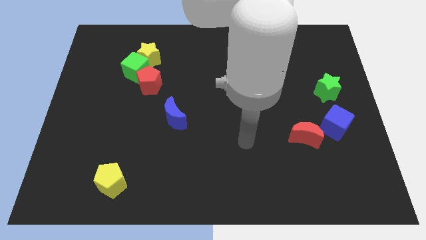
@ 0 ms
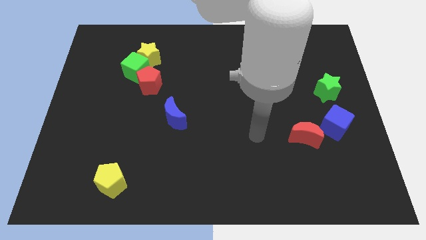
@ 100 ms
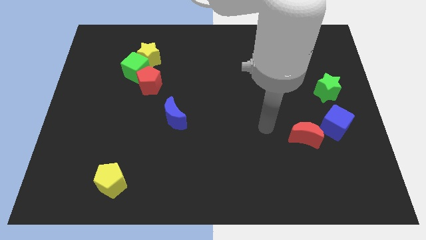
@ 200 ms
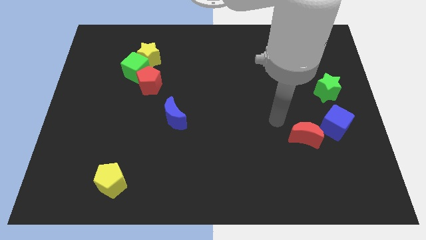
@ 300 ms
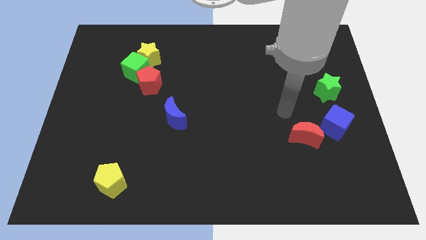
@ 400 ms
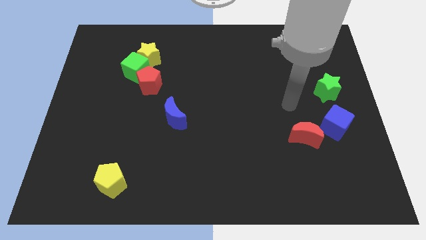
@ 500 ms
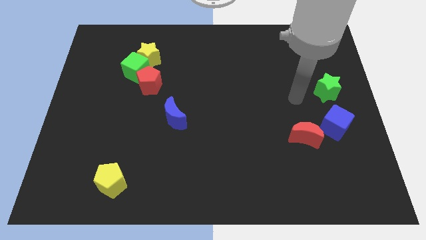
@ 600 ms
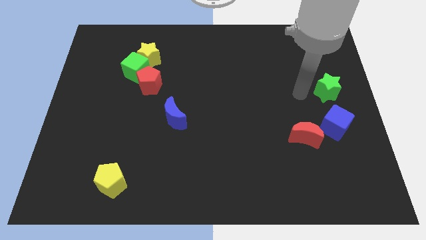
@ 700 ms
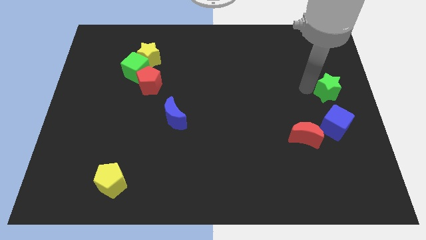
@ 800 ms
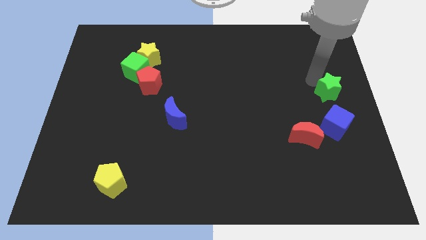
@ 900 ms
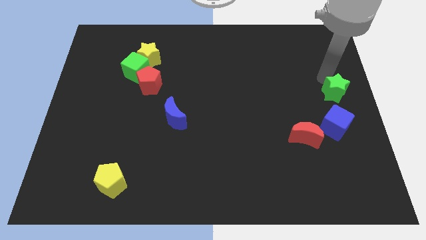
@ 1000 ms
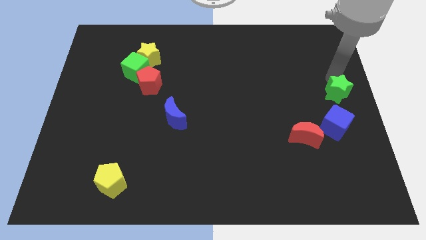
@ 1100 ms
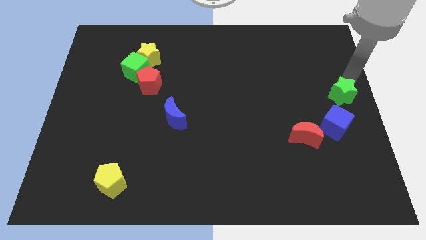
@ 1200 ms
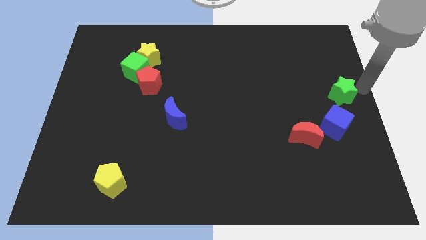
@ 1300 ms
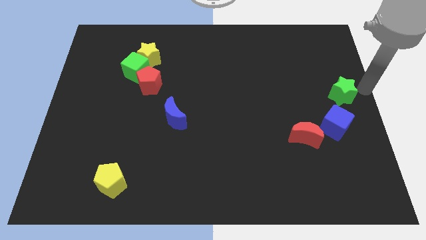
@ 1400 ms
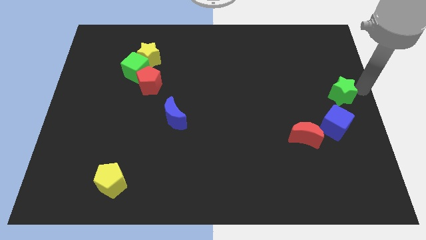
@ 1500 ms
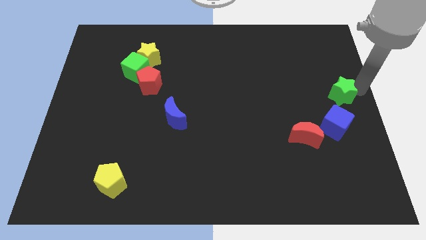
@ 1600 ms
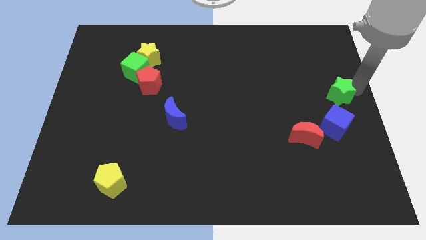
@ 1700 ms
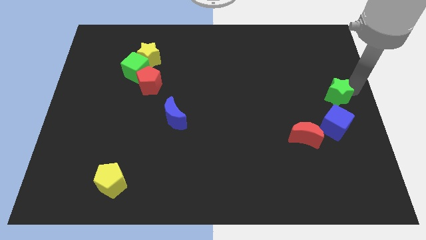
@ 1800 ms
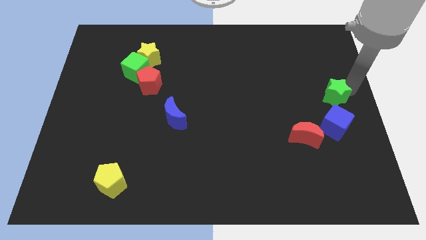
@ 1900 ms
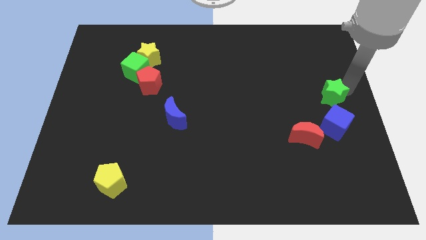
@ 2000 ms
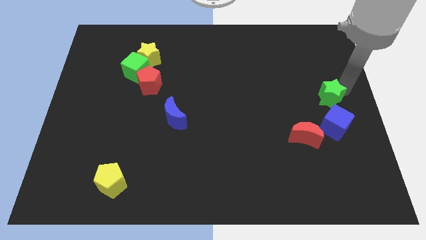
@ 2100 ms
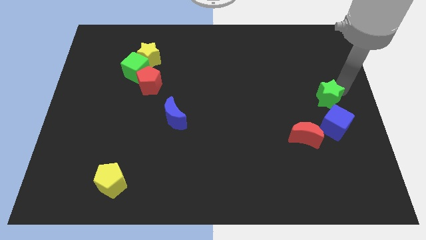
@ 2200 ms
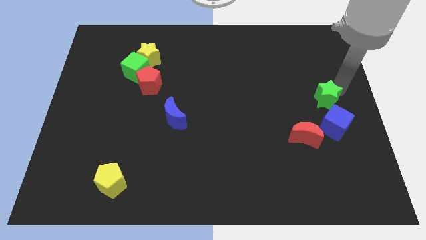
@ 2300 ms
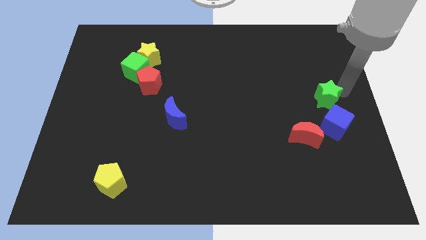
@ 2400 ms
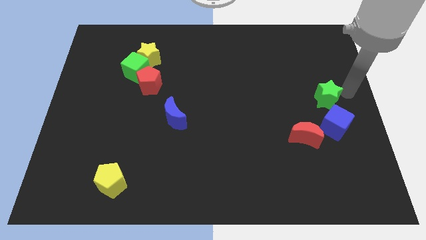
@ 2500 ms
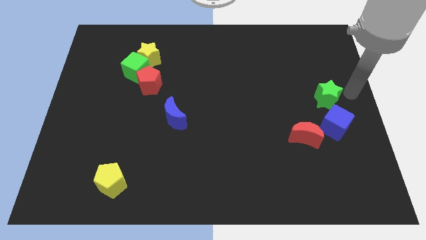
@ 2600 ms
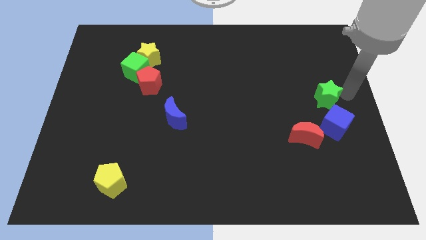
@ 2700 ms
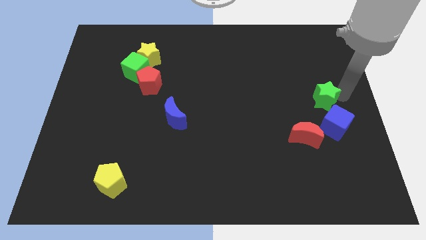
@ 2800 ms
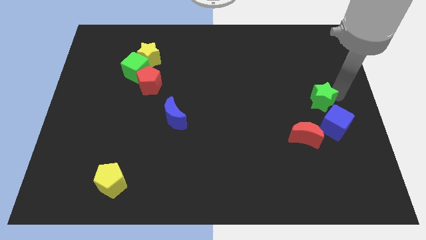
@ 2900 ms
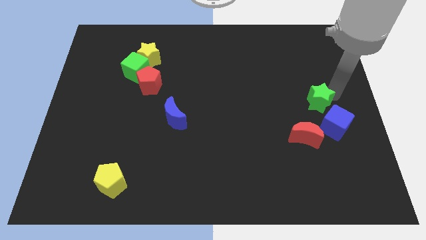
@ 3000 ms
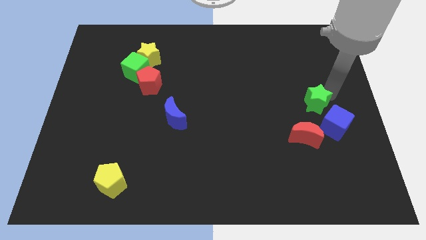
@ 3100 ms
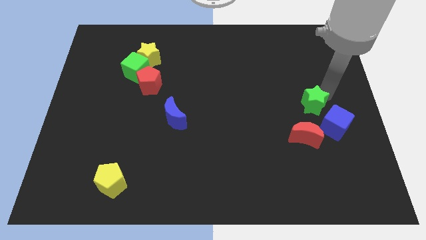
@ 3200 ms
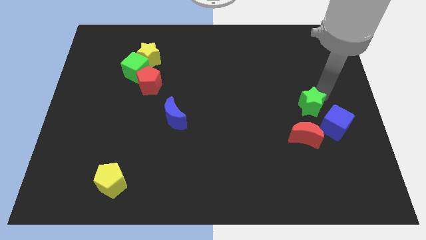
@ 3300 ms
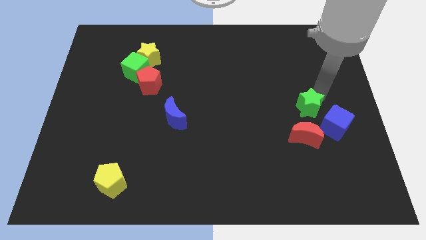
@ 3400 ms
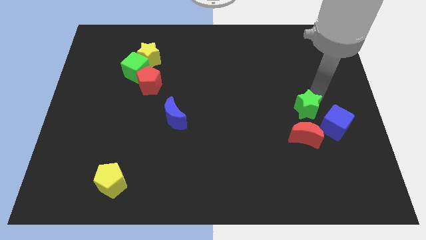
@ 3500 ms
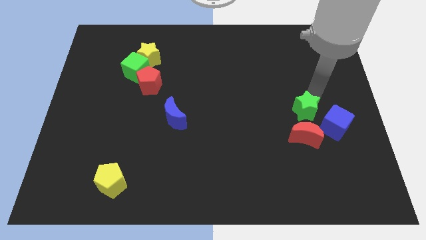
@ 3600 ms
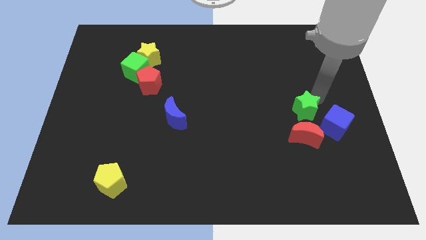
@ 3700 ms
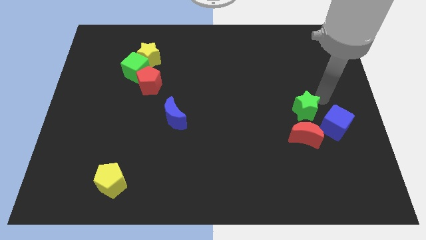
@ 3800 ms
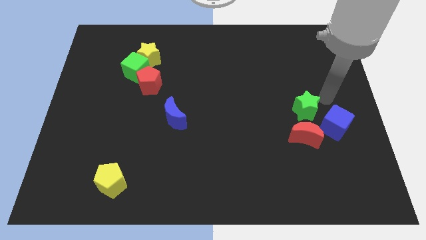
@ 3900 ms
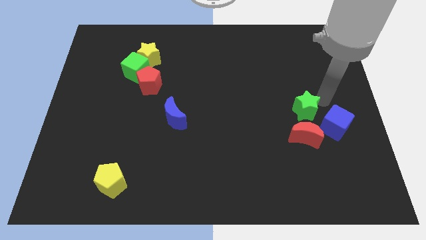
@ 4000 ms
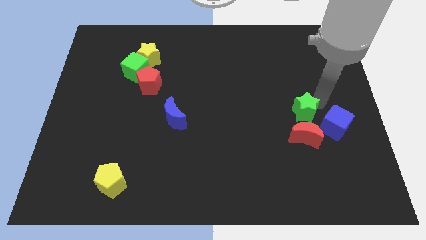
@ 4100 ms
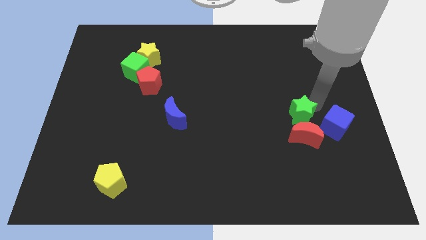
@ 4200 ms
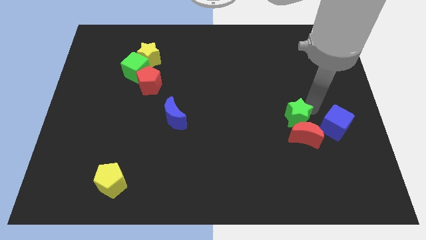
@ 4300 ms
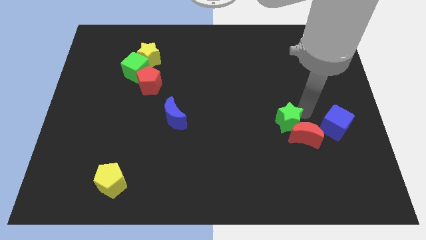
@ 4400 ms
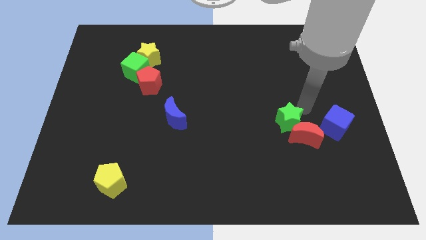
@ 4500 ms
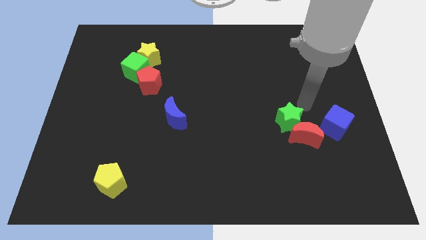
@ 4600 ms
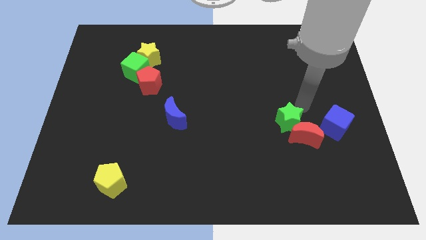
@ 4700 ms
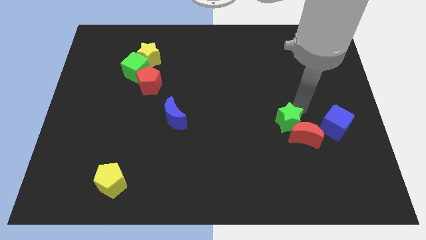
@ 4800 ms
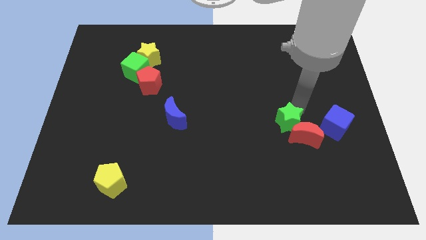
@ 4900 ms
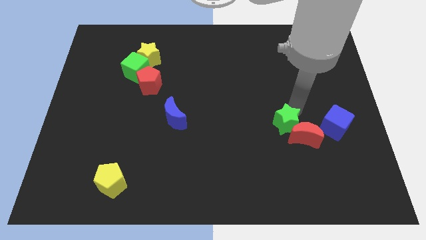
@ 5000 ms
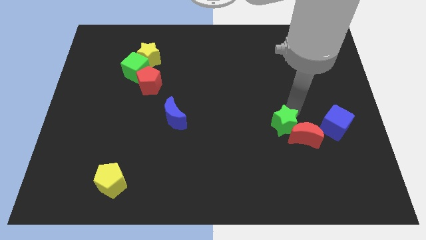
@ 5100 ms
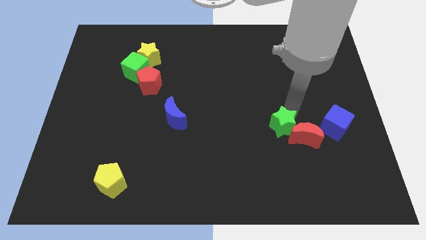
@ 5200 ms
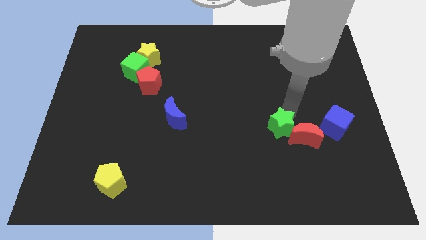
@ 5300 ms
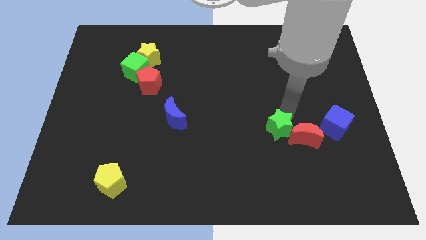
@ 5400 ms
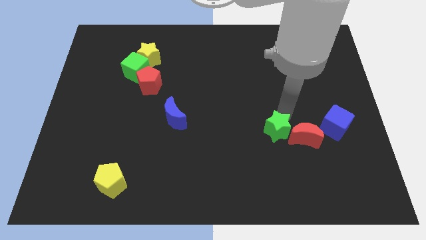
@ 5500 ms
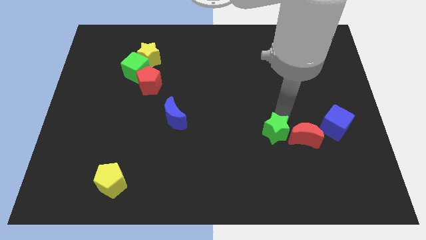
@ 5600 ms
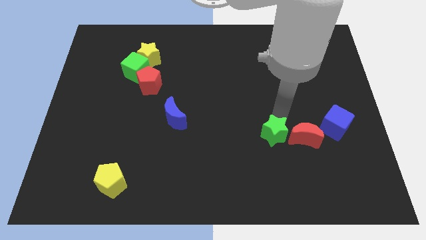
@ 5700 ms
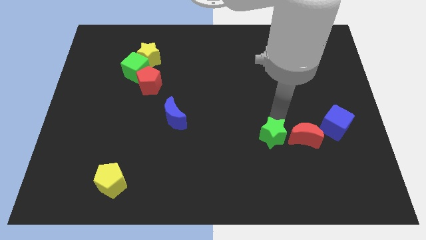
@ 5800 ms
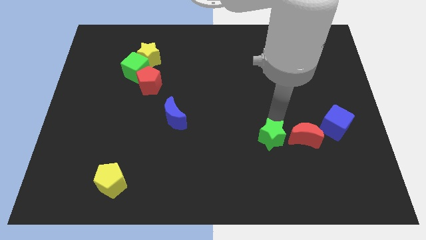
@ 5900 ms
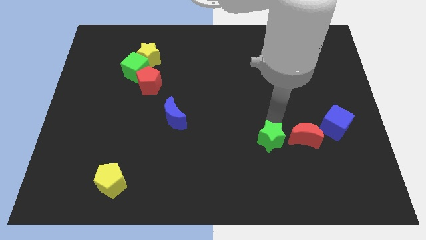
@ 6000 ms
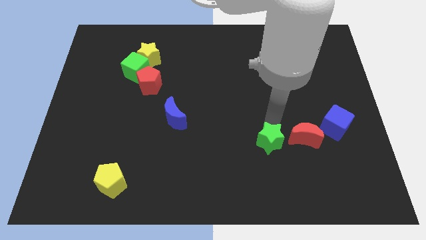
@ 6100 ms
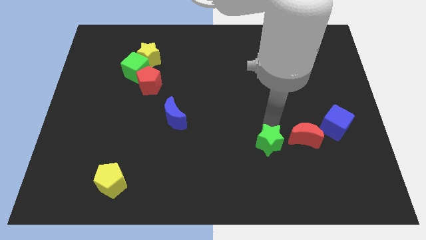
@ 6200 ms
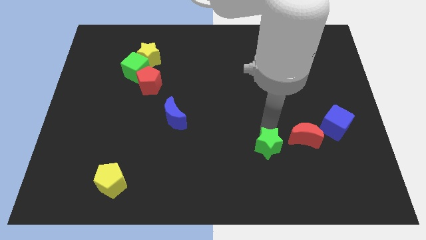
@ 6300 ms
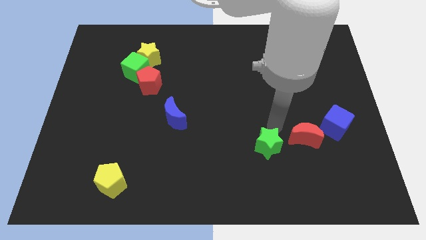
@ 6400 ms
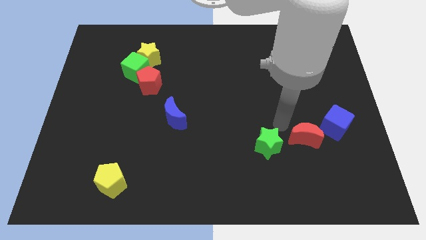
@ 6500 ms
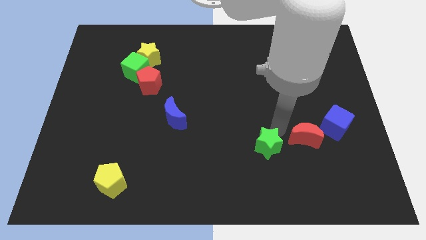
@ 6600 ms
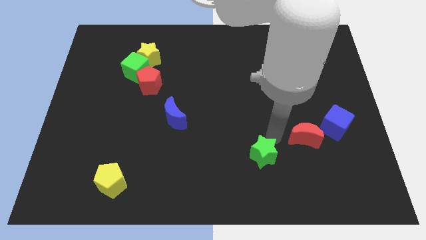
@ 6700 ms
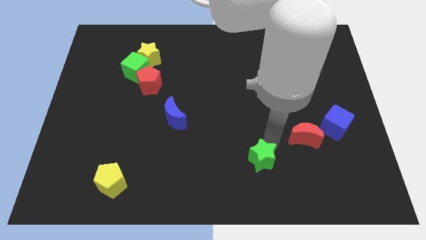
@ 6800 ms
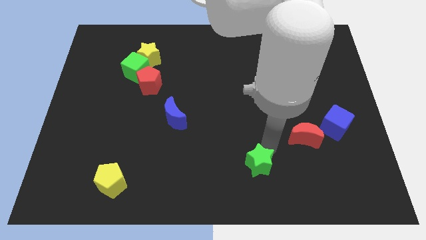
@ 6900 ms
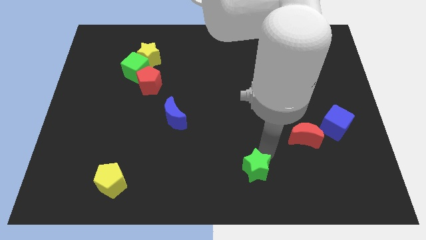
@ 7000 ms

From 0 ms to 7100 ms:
slide the green star to the bottom side

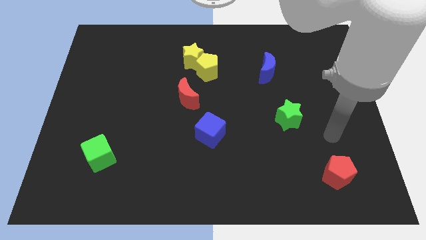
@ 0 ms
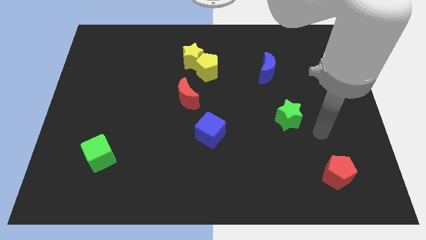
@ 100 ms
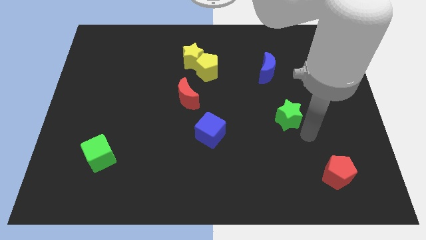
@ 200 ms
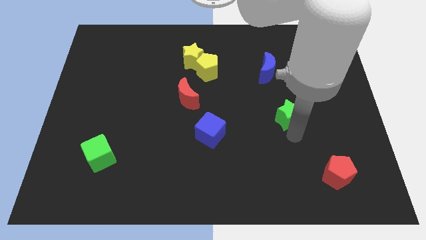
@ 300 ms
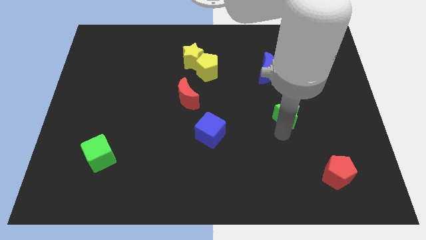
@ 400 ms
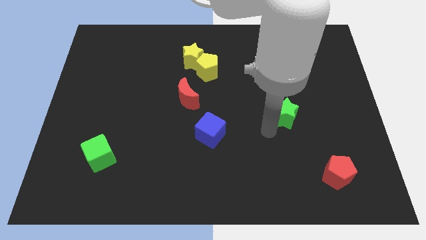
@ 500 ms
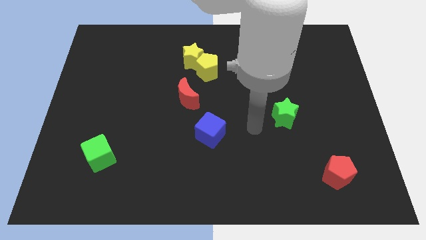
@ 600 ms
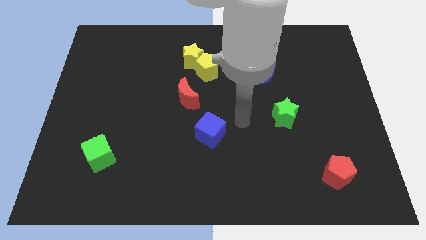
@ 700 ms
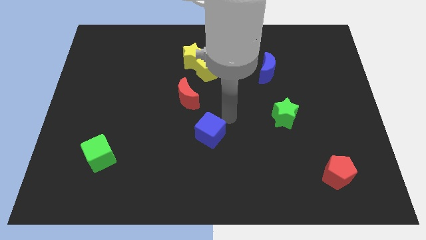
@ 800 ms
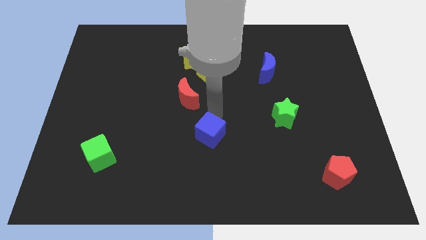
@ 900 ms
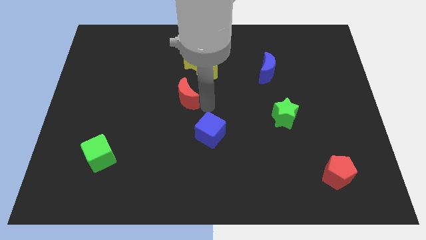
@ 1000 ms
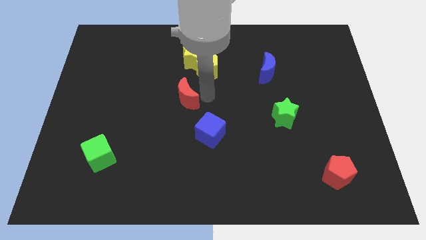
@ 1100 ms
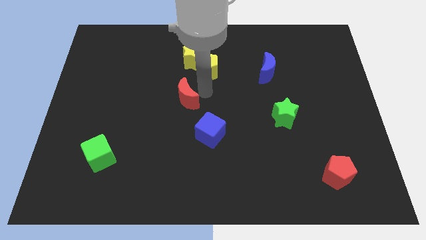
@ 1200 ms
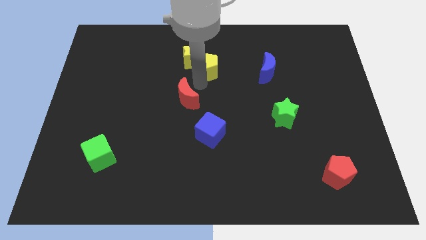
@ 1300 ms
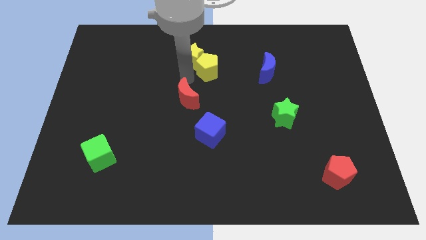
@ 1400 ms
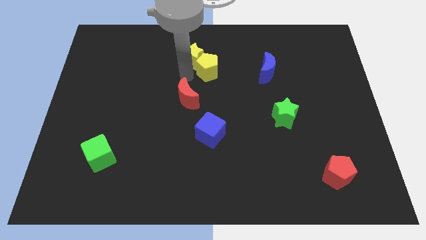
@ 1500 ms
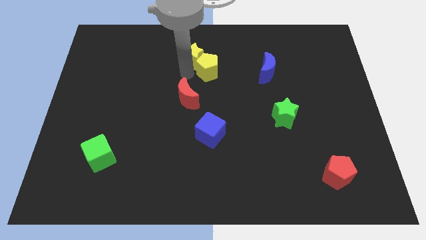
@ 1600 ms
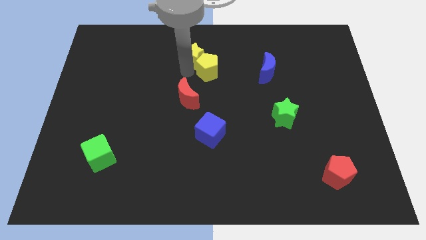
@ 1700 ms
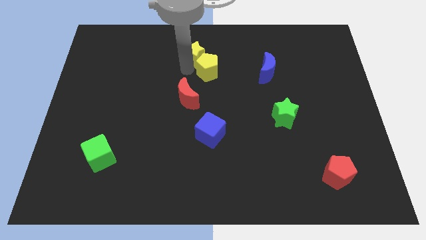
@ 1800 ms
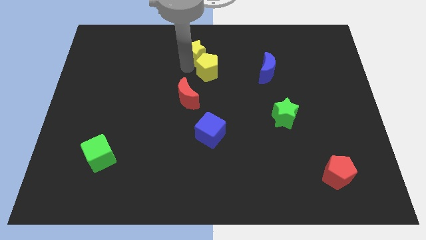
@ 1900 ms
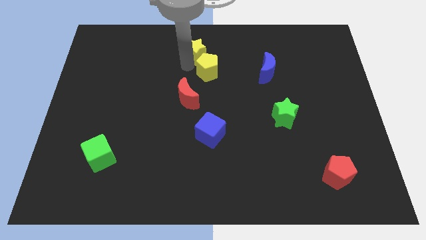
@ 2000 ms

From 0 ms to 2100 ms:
move the yellow star to the top side
